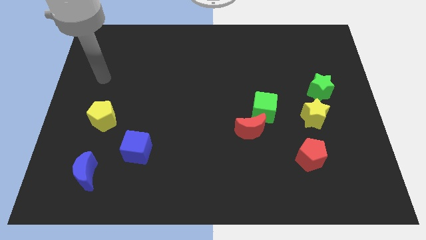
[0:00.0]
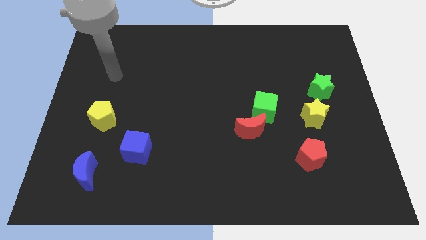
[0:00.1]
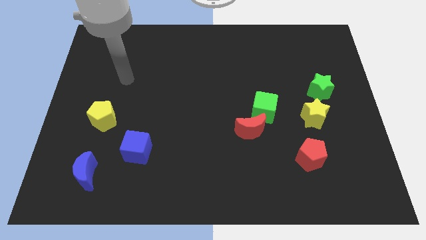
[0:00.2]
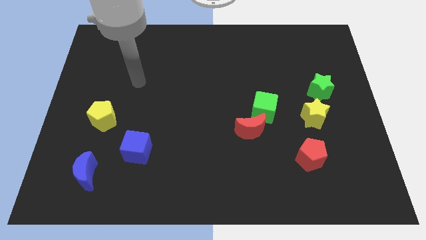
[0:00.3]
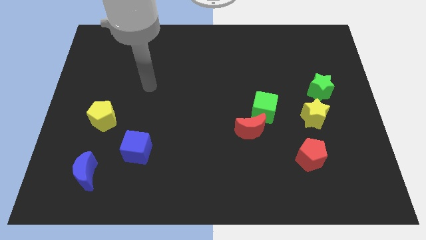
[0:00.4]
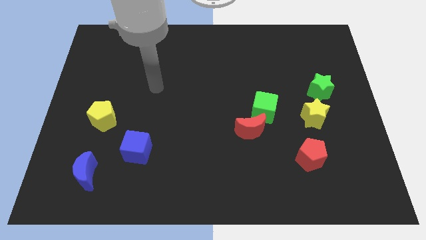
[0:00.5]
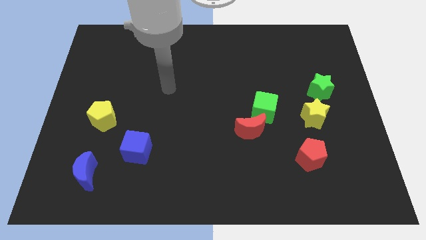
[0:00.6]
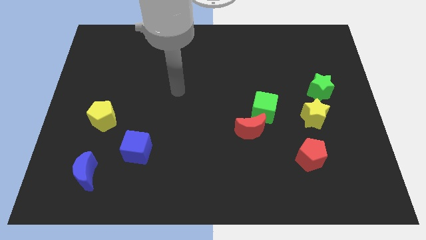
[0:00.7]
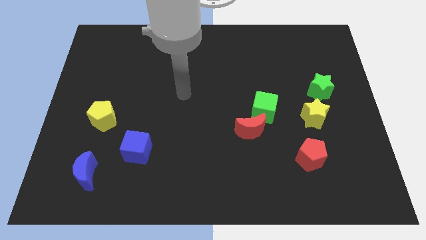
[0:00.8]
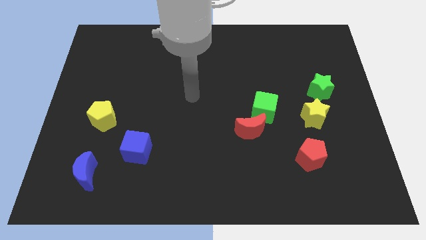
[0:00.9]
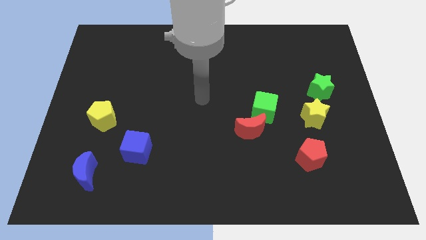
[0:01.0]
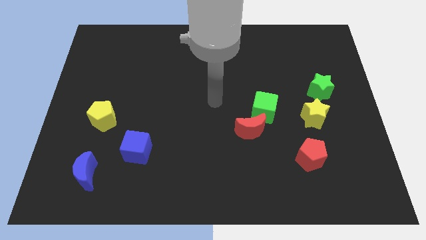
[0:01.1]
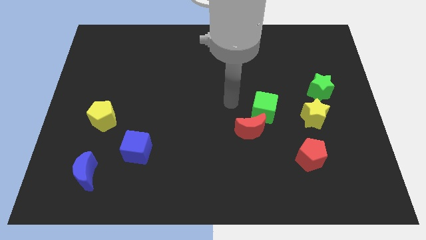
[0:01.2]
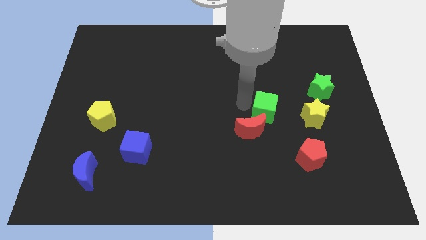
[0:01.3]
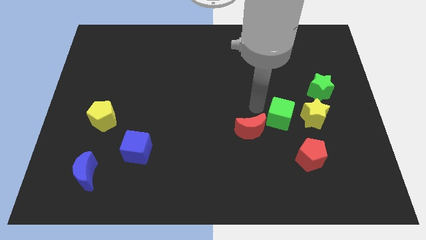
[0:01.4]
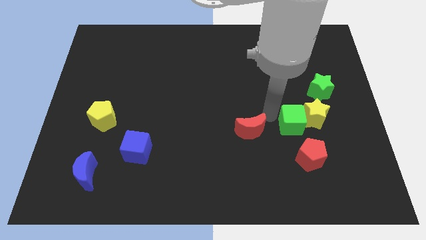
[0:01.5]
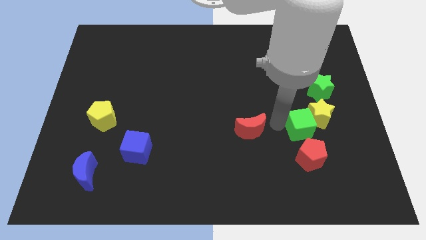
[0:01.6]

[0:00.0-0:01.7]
move the red moon away from the green cube

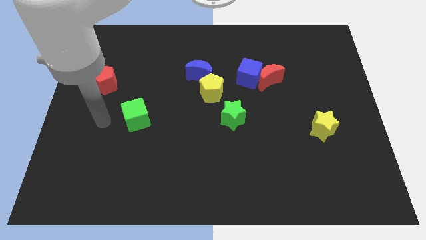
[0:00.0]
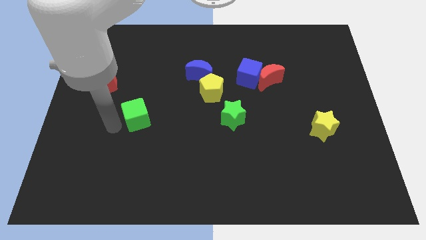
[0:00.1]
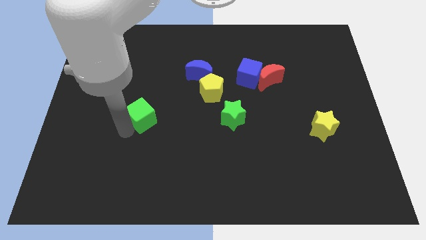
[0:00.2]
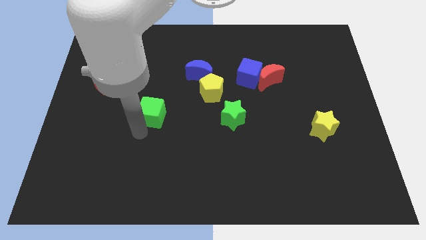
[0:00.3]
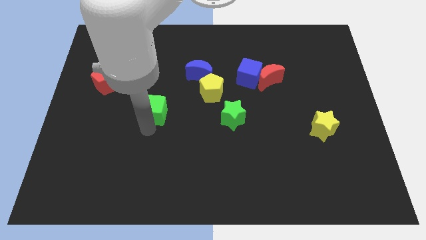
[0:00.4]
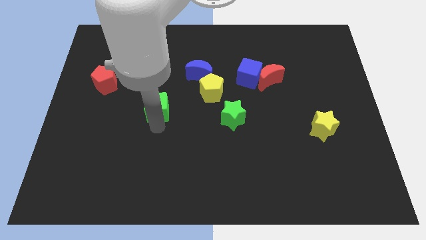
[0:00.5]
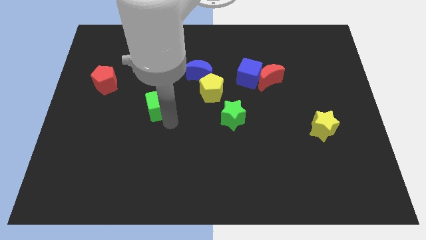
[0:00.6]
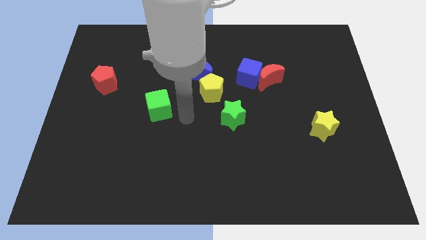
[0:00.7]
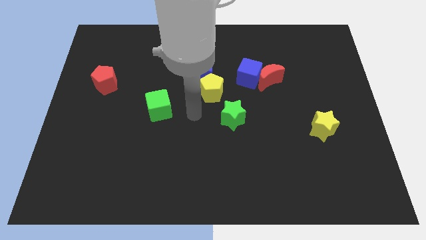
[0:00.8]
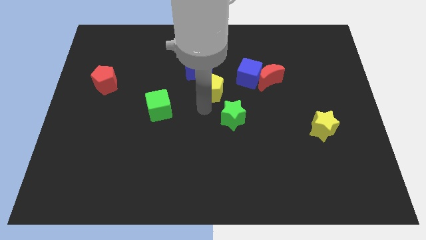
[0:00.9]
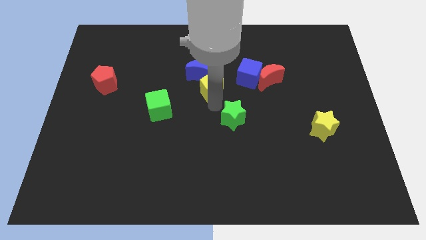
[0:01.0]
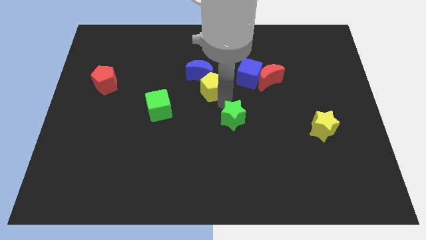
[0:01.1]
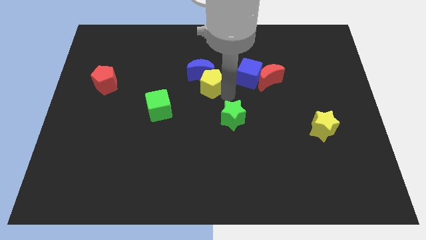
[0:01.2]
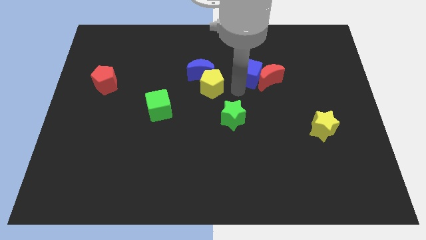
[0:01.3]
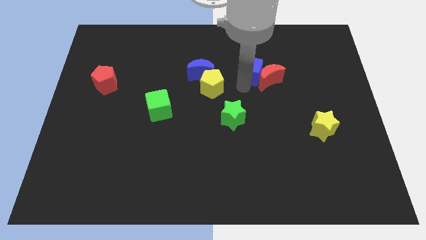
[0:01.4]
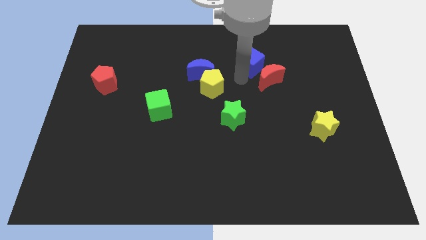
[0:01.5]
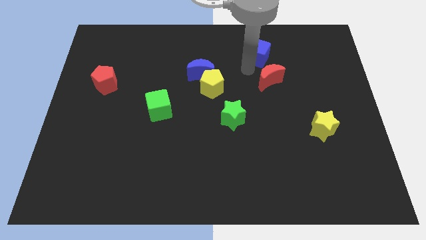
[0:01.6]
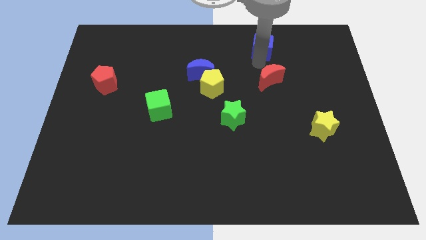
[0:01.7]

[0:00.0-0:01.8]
pull the red moon apart from the blue cube

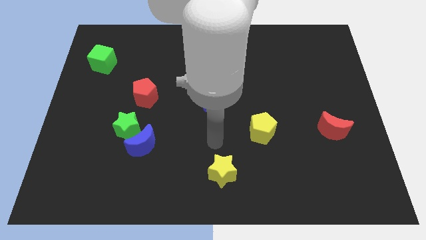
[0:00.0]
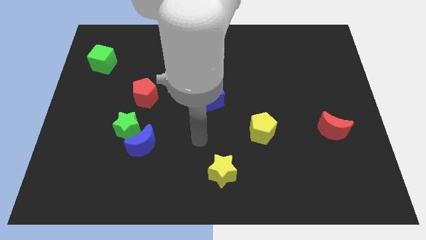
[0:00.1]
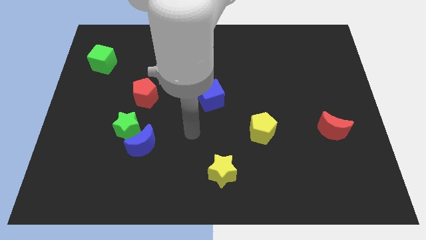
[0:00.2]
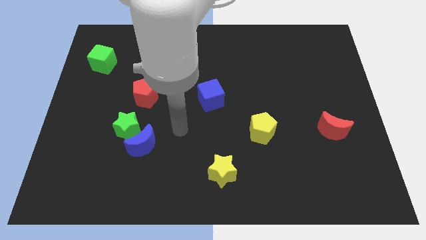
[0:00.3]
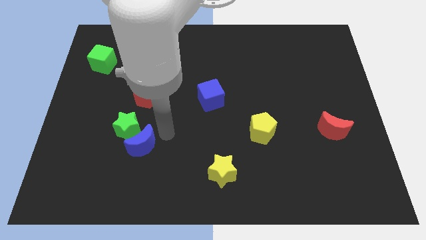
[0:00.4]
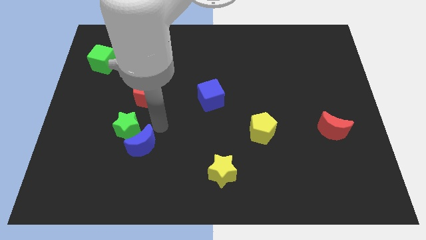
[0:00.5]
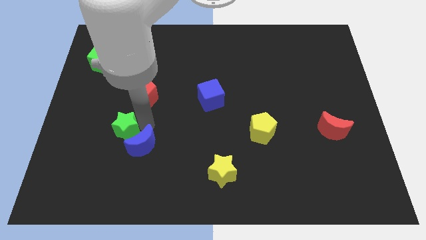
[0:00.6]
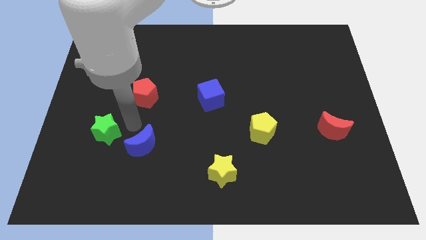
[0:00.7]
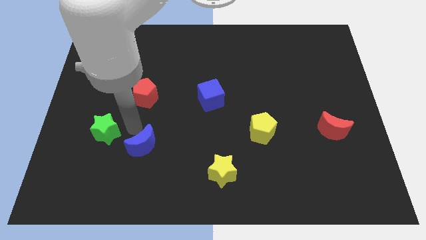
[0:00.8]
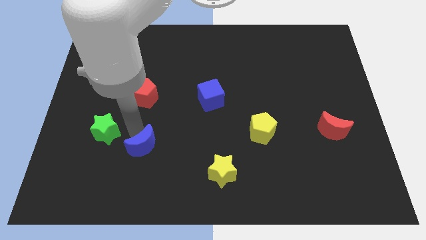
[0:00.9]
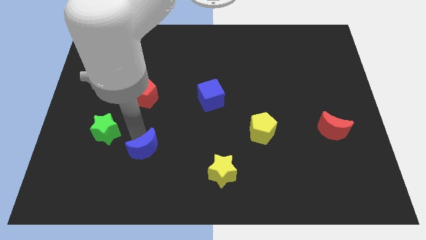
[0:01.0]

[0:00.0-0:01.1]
separate the blue moon from the green star

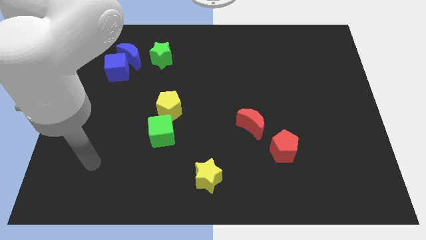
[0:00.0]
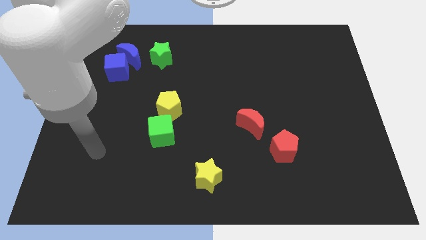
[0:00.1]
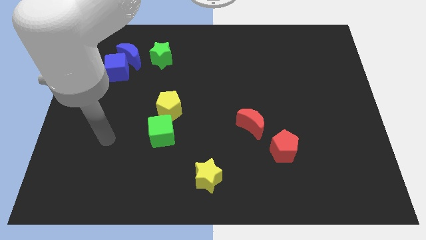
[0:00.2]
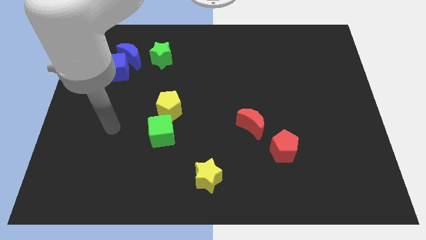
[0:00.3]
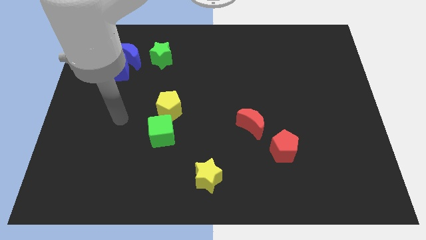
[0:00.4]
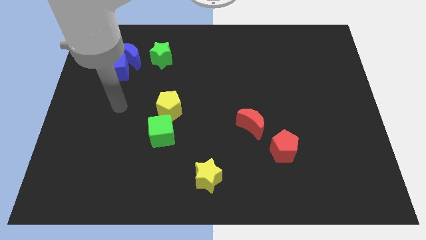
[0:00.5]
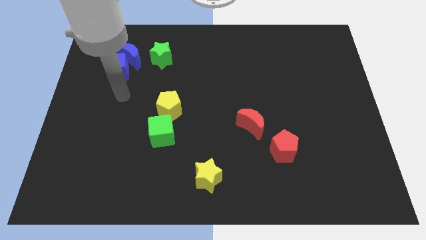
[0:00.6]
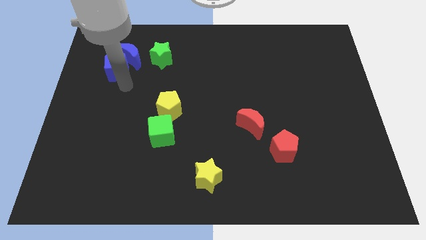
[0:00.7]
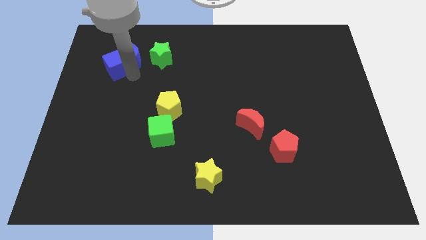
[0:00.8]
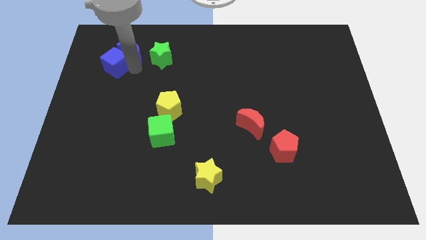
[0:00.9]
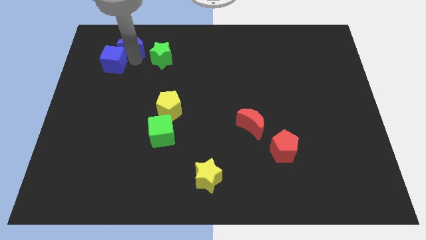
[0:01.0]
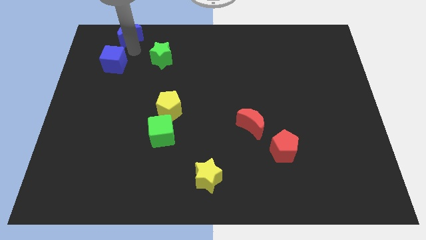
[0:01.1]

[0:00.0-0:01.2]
move the blue cube away from the blue moon

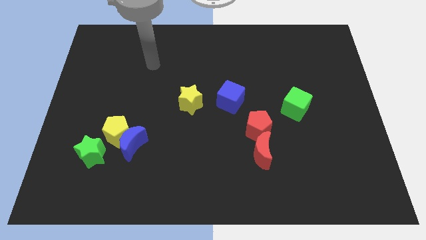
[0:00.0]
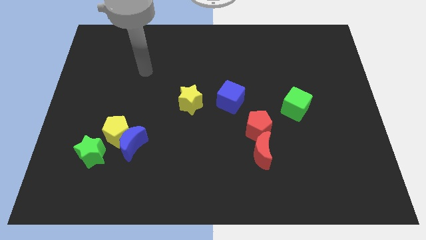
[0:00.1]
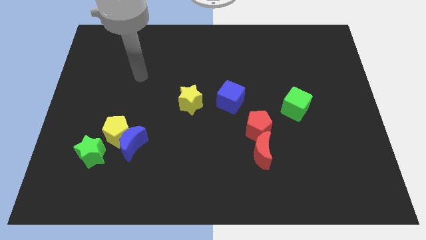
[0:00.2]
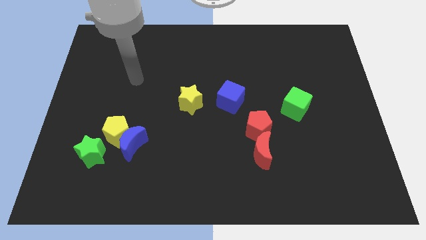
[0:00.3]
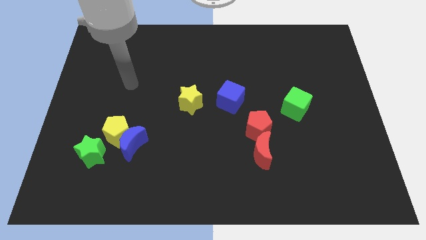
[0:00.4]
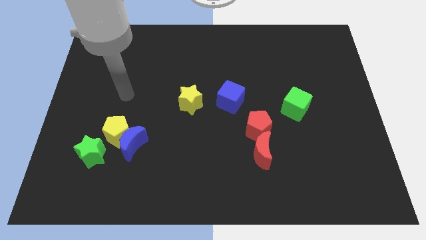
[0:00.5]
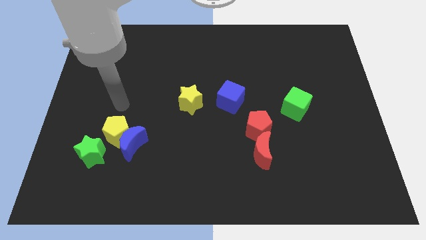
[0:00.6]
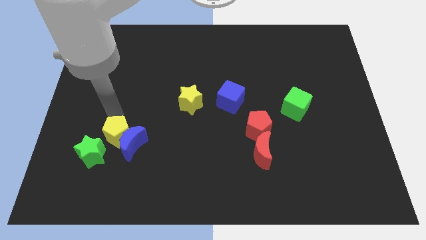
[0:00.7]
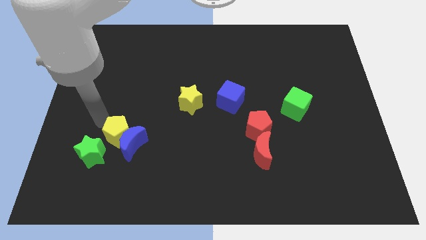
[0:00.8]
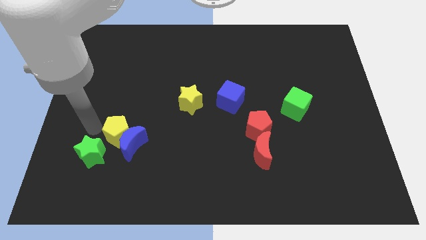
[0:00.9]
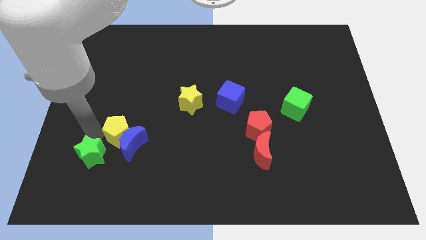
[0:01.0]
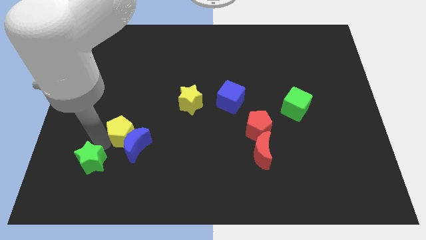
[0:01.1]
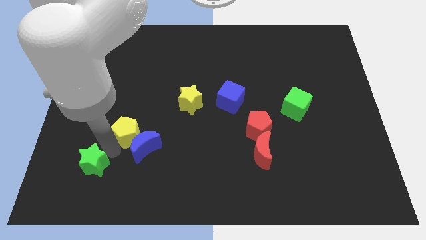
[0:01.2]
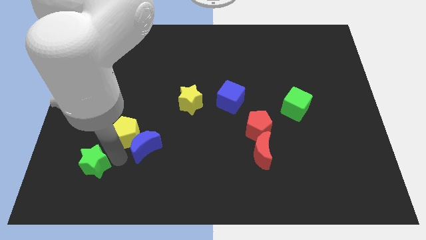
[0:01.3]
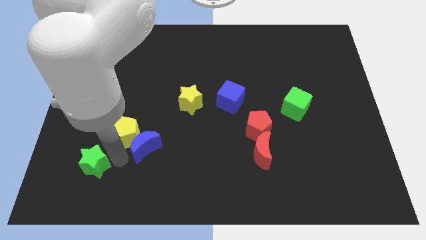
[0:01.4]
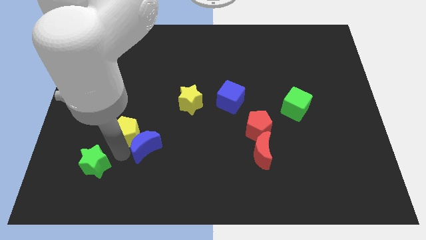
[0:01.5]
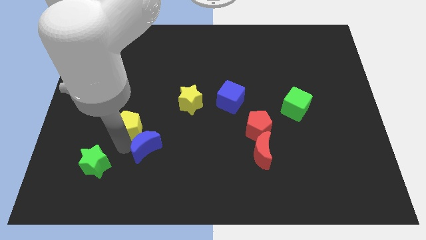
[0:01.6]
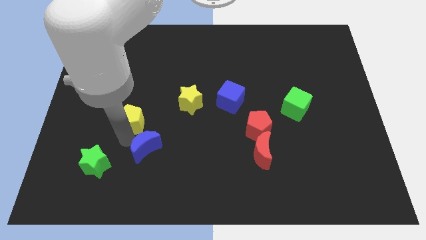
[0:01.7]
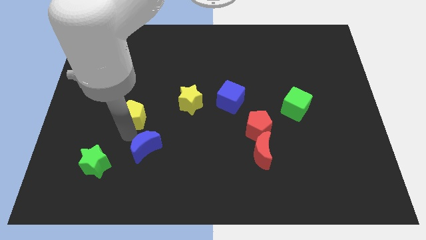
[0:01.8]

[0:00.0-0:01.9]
separate the yellow pentagon from the blue moon and green star

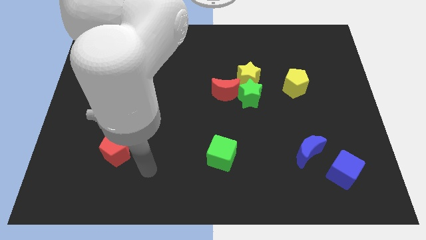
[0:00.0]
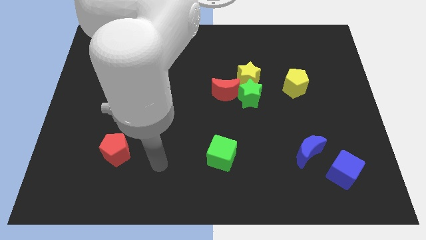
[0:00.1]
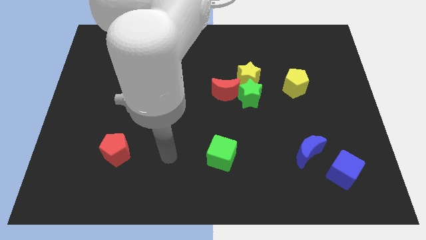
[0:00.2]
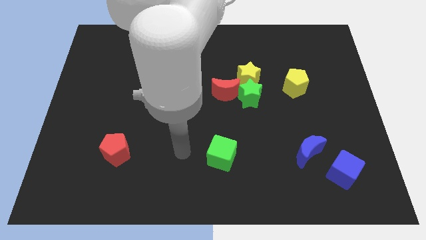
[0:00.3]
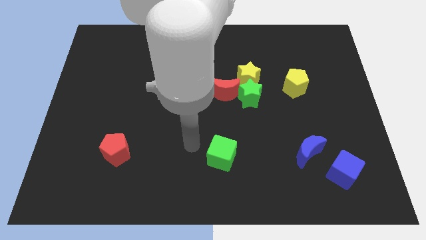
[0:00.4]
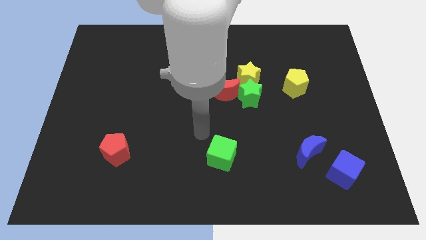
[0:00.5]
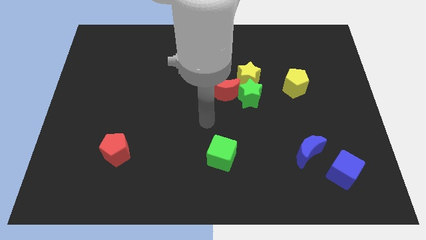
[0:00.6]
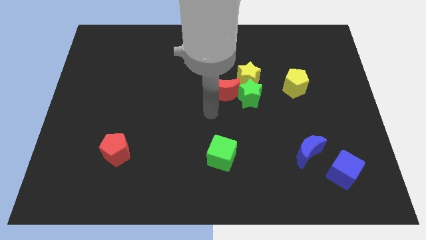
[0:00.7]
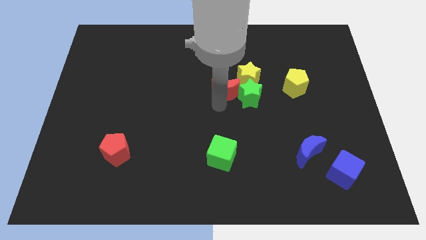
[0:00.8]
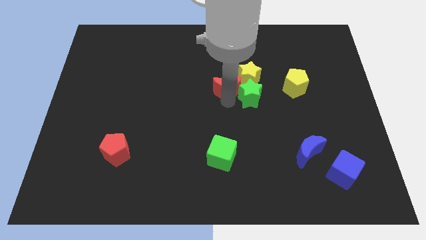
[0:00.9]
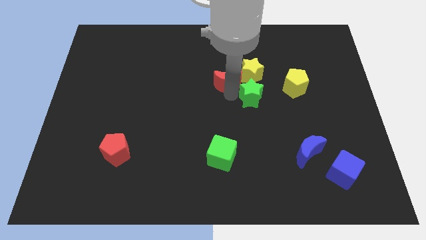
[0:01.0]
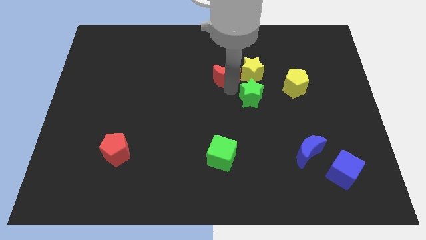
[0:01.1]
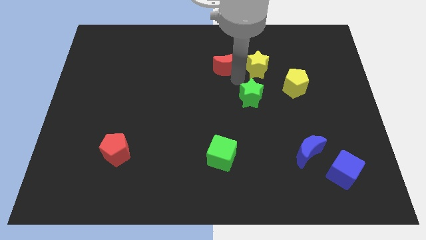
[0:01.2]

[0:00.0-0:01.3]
separate the green star from the yellow star and red moon

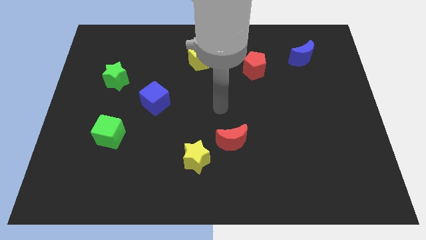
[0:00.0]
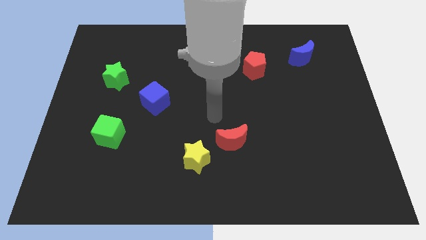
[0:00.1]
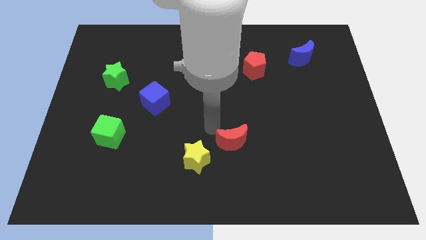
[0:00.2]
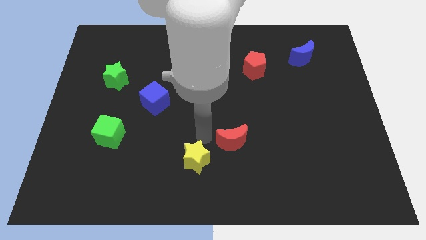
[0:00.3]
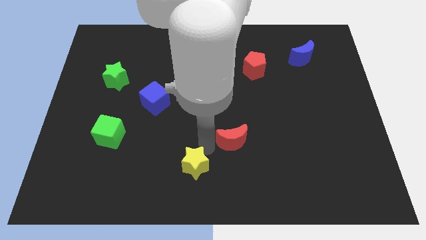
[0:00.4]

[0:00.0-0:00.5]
pull the red moon apart from the yellow star

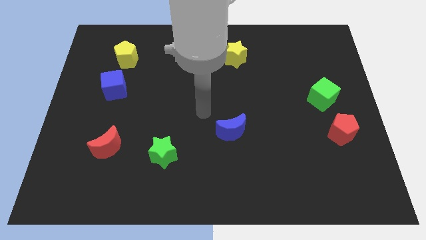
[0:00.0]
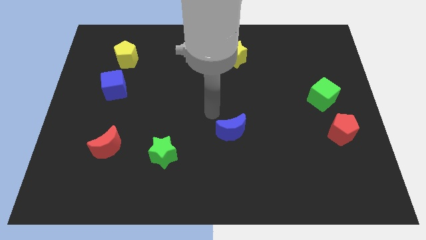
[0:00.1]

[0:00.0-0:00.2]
move the red pentagon away from the green cube
